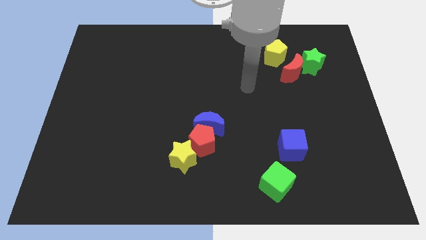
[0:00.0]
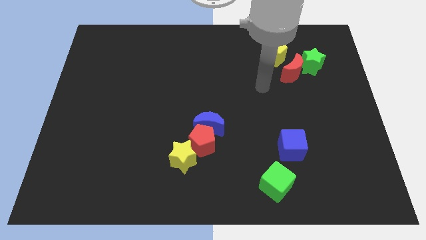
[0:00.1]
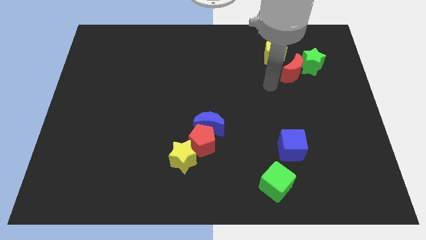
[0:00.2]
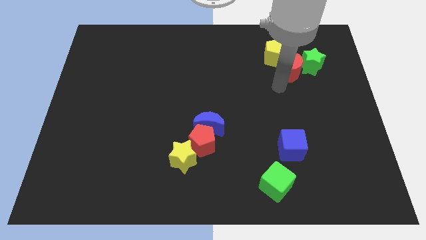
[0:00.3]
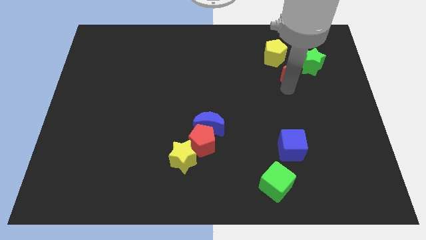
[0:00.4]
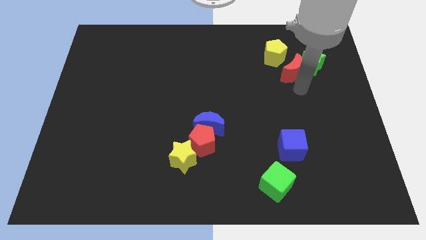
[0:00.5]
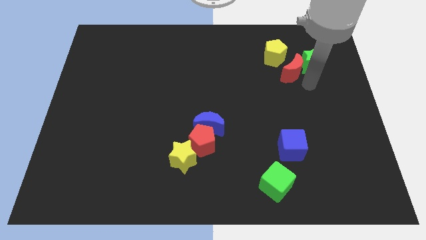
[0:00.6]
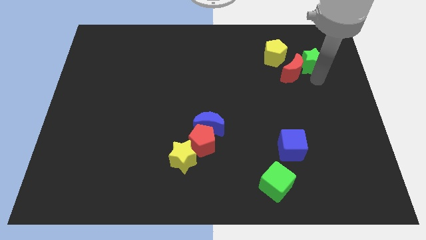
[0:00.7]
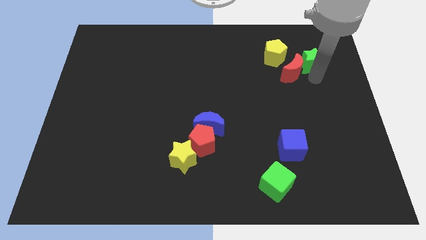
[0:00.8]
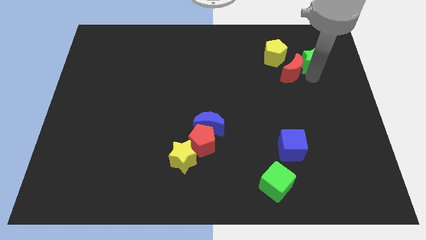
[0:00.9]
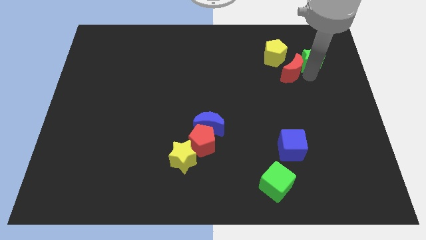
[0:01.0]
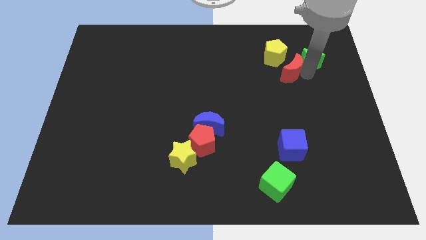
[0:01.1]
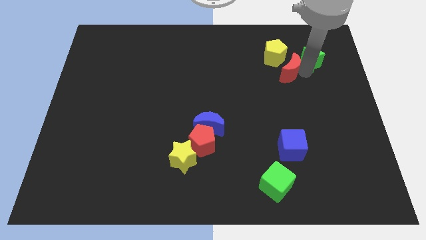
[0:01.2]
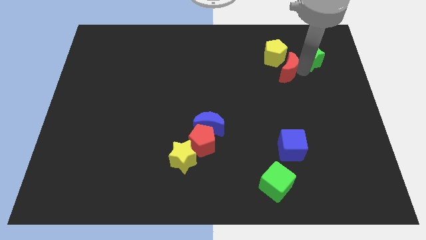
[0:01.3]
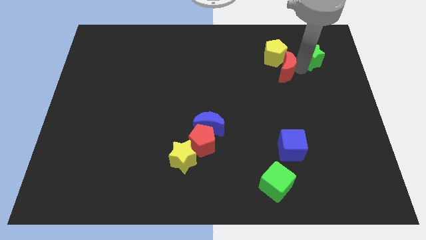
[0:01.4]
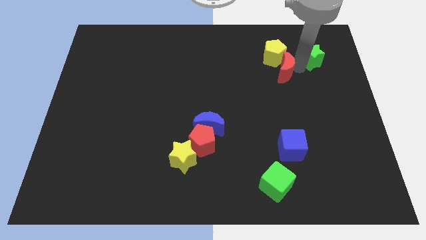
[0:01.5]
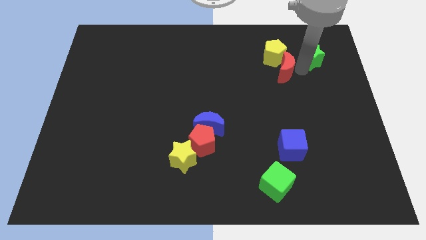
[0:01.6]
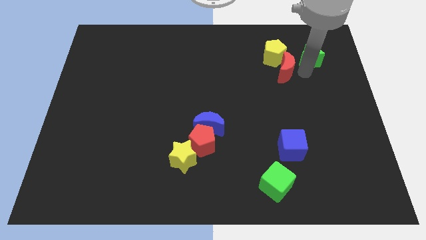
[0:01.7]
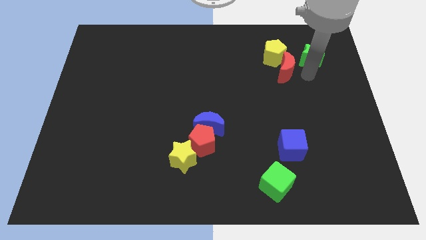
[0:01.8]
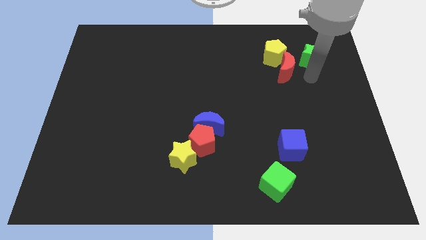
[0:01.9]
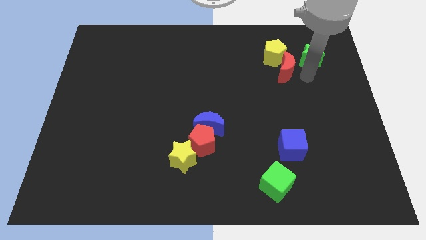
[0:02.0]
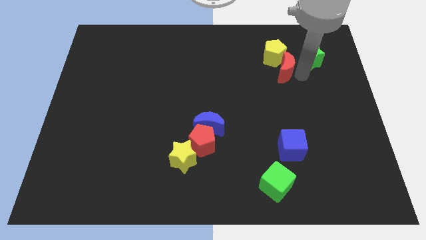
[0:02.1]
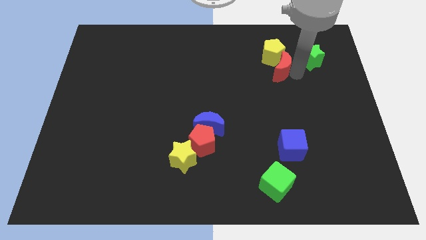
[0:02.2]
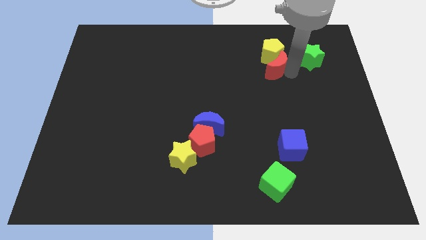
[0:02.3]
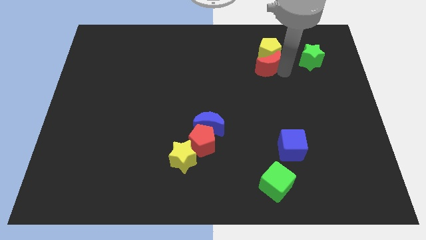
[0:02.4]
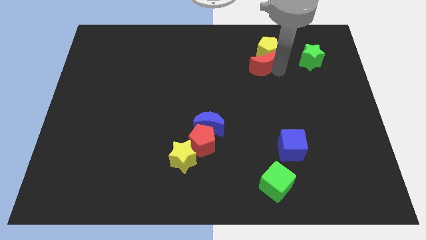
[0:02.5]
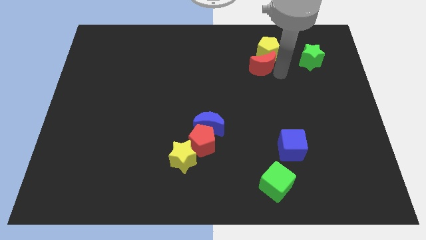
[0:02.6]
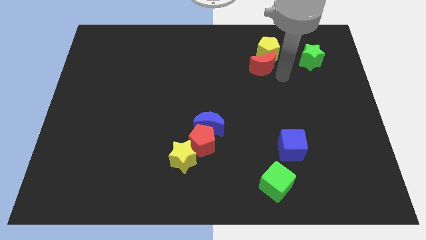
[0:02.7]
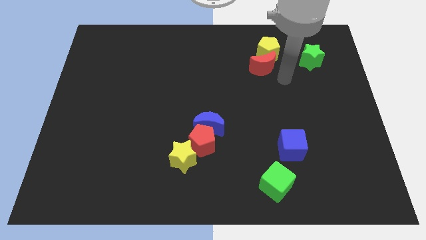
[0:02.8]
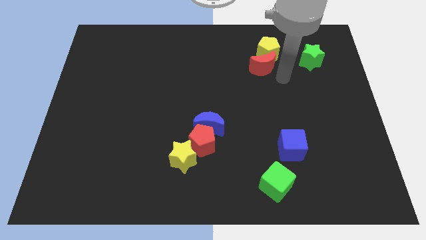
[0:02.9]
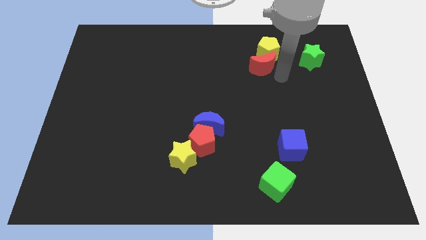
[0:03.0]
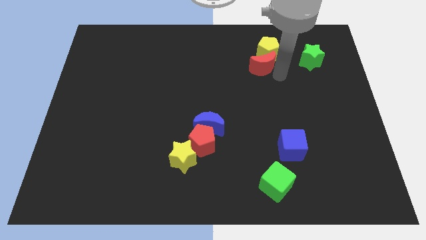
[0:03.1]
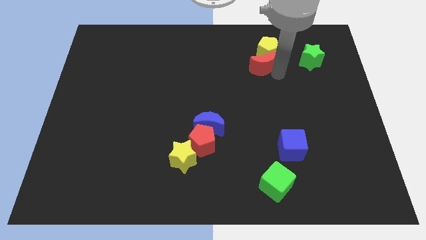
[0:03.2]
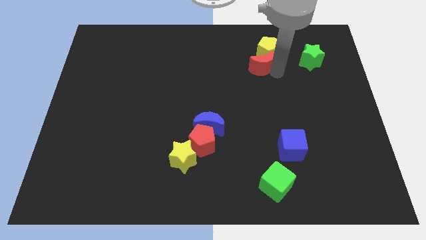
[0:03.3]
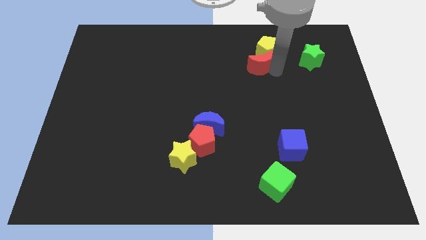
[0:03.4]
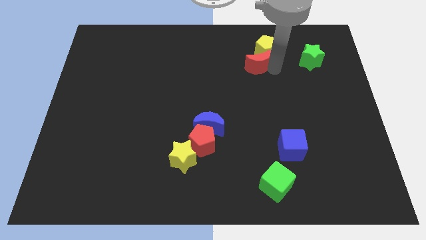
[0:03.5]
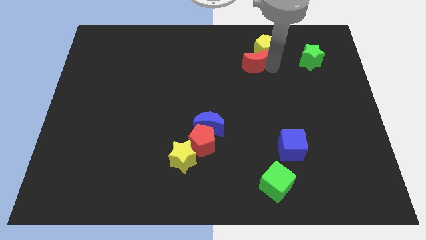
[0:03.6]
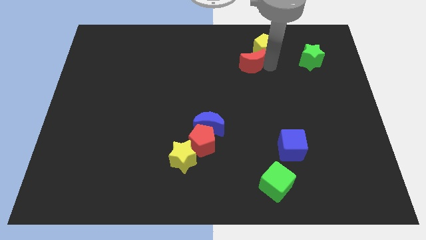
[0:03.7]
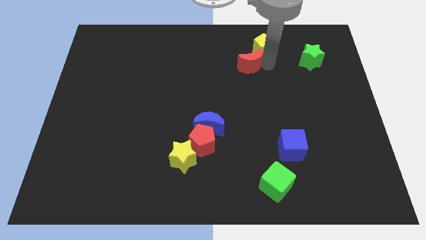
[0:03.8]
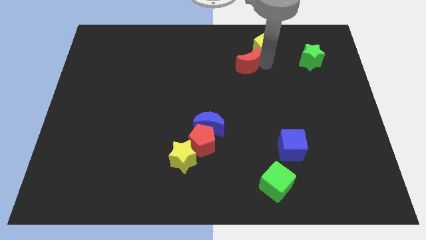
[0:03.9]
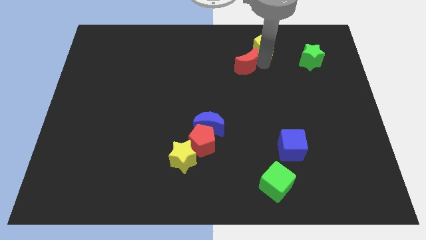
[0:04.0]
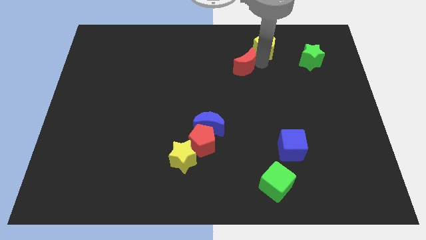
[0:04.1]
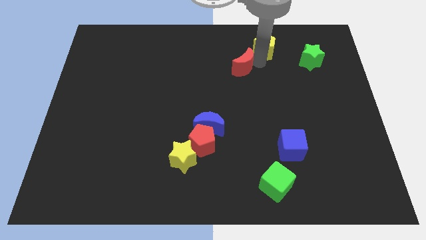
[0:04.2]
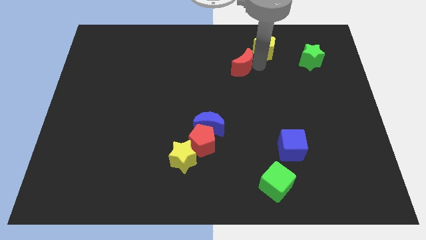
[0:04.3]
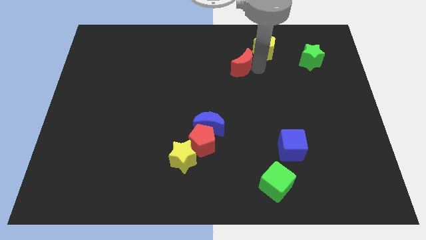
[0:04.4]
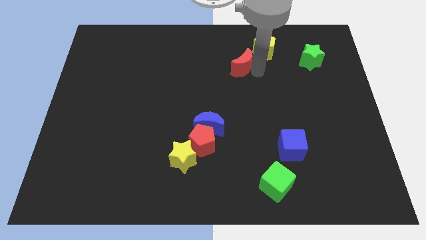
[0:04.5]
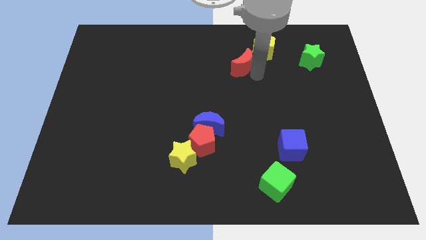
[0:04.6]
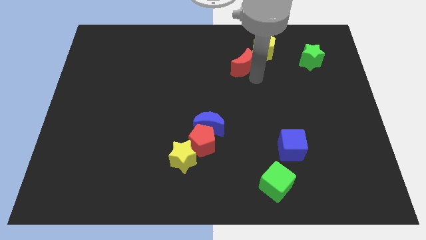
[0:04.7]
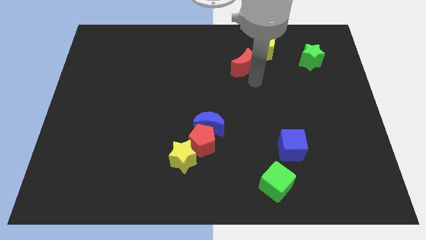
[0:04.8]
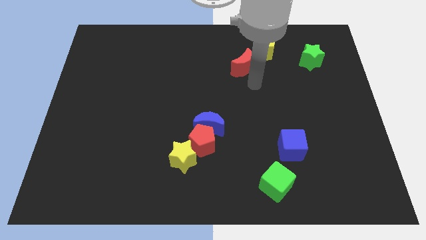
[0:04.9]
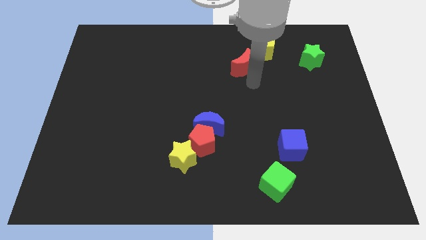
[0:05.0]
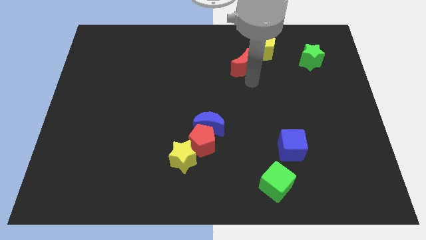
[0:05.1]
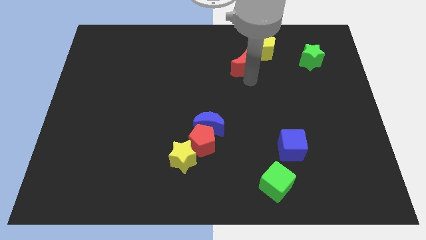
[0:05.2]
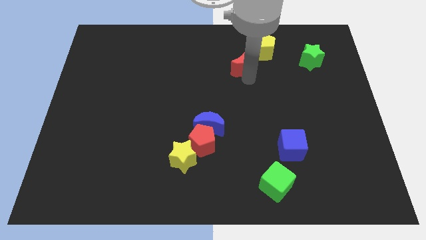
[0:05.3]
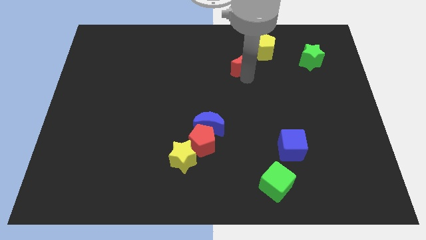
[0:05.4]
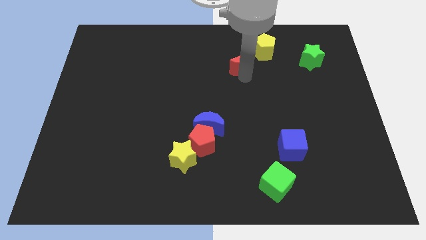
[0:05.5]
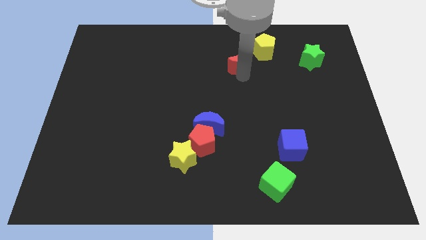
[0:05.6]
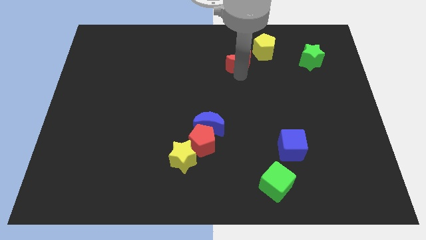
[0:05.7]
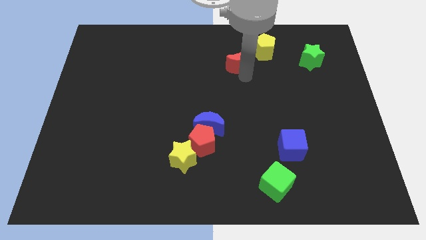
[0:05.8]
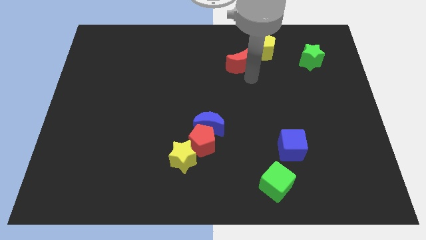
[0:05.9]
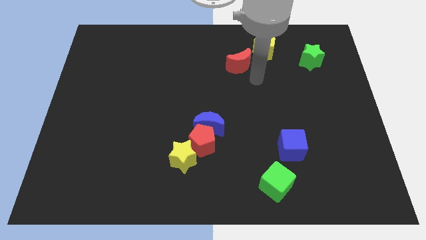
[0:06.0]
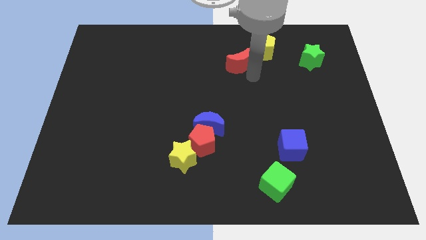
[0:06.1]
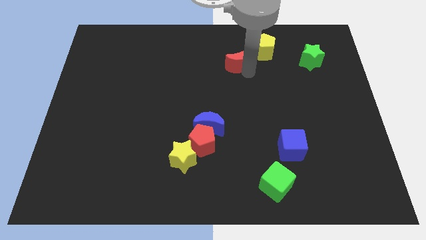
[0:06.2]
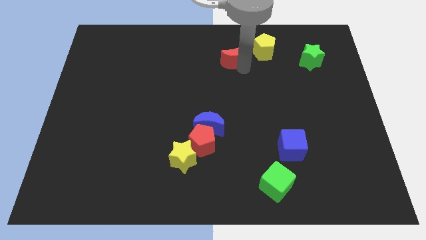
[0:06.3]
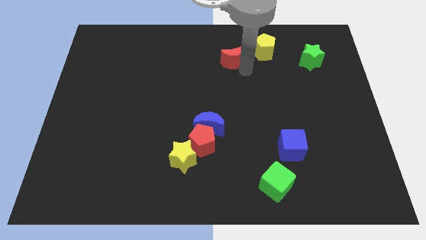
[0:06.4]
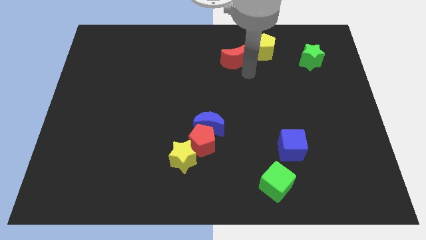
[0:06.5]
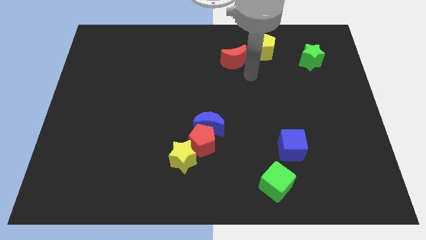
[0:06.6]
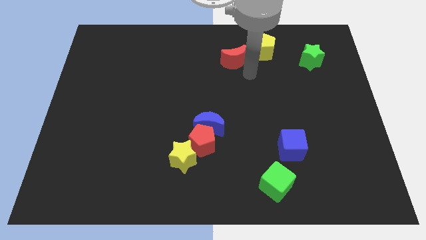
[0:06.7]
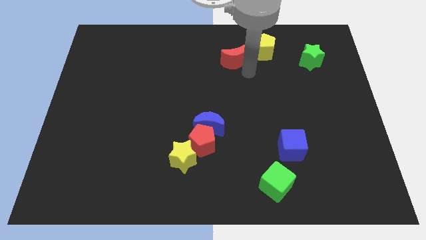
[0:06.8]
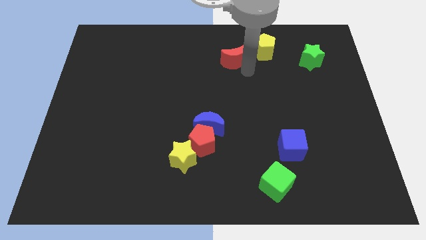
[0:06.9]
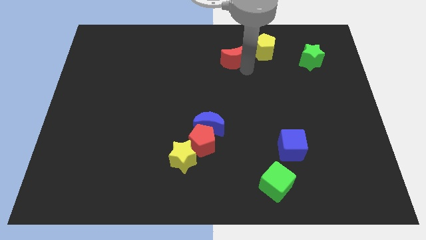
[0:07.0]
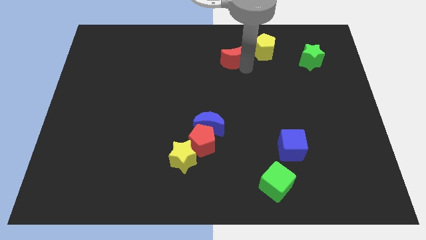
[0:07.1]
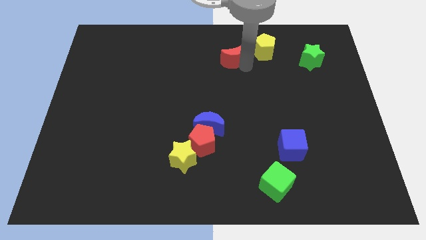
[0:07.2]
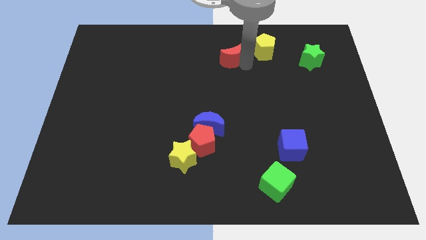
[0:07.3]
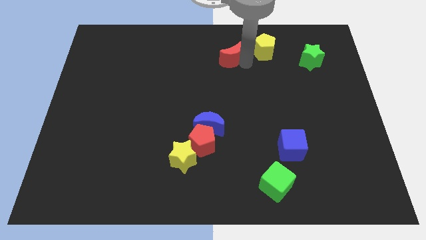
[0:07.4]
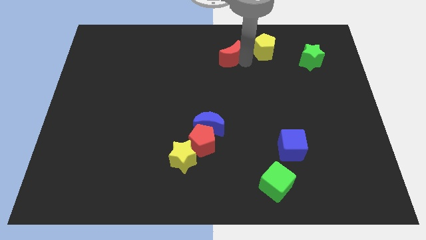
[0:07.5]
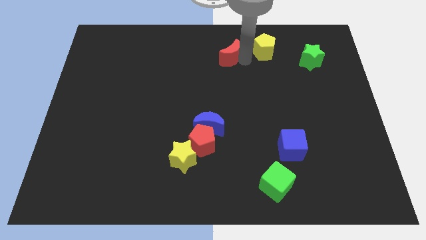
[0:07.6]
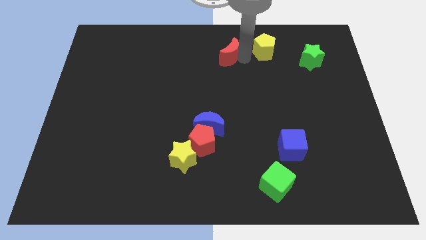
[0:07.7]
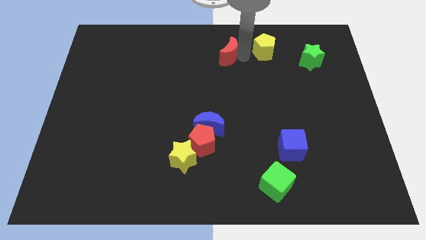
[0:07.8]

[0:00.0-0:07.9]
move the red moon to the top side
